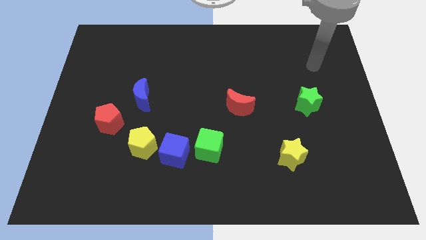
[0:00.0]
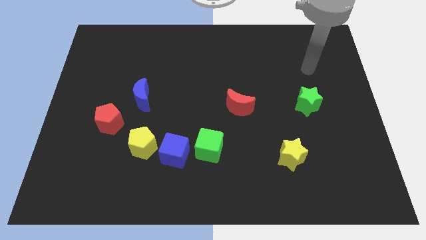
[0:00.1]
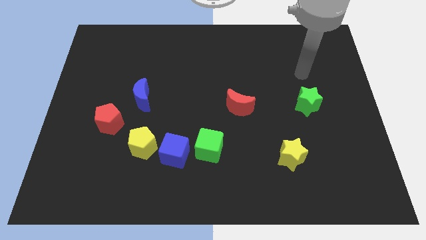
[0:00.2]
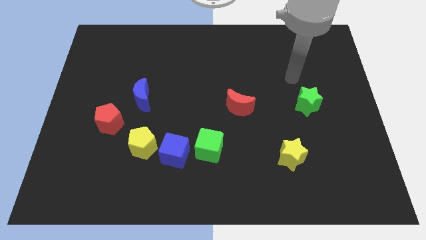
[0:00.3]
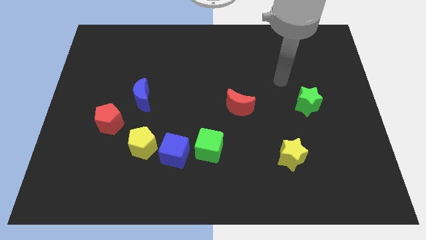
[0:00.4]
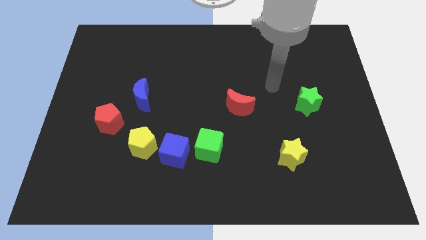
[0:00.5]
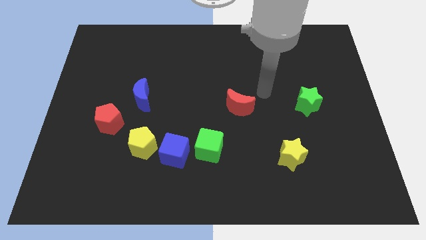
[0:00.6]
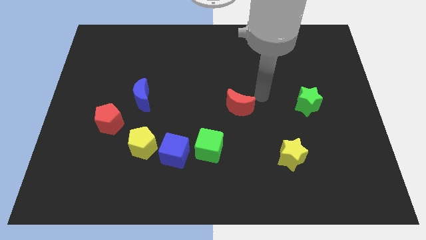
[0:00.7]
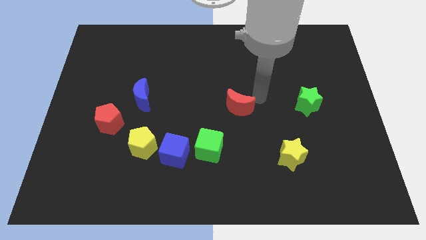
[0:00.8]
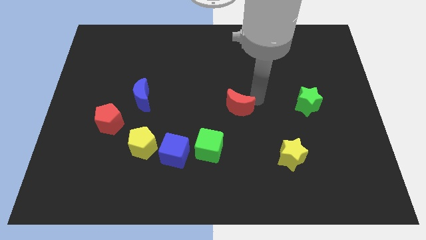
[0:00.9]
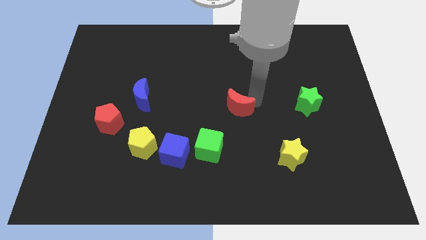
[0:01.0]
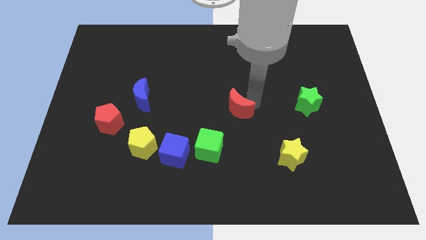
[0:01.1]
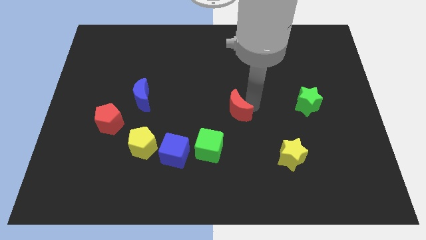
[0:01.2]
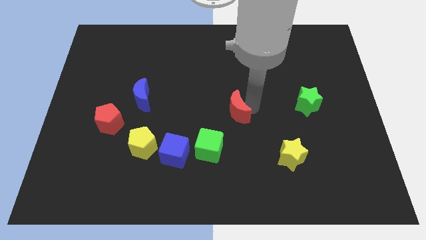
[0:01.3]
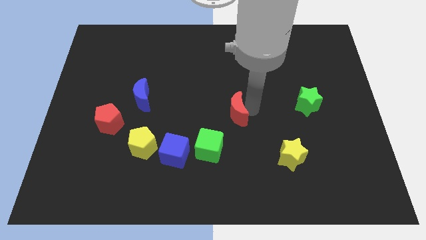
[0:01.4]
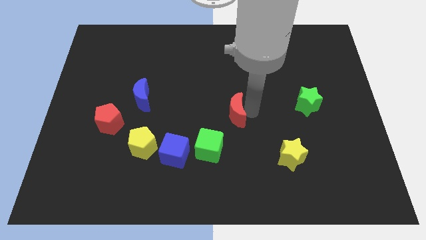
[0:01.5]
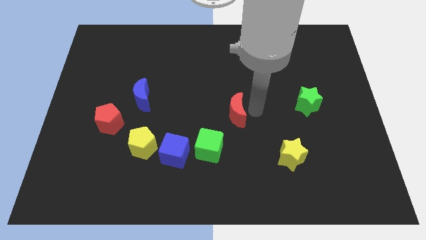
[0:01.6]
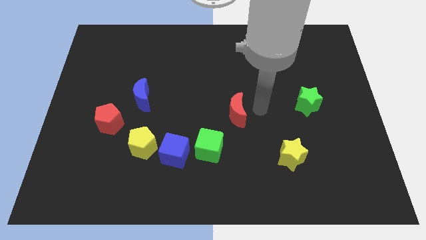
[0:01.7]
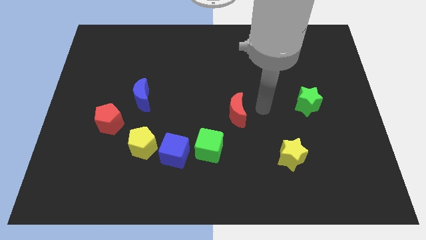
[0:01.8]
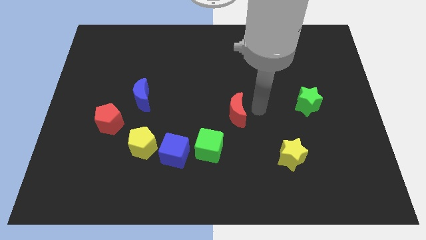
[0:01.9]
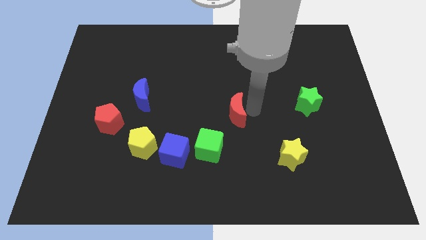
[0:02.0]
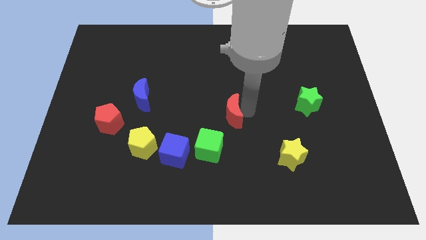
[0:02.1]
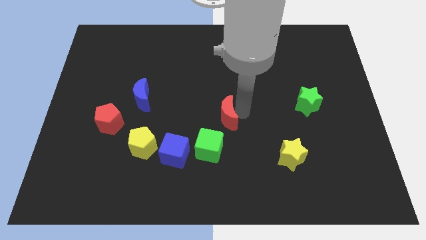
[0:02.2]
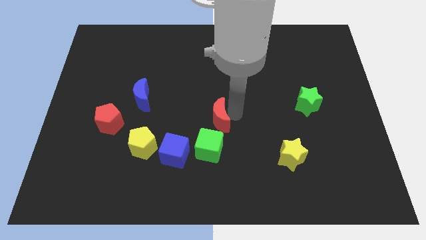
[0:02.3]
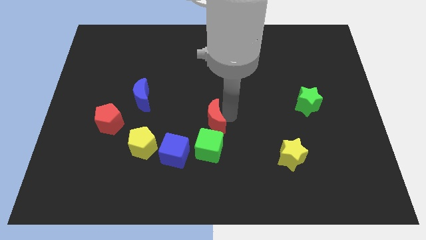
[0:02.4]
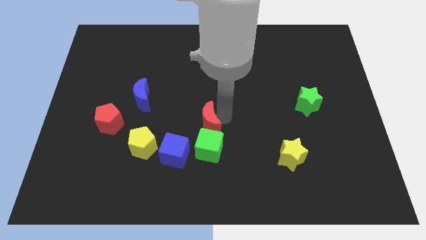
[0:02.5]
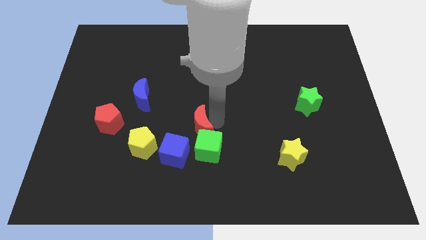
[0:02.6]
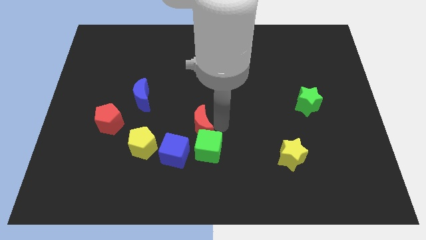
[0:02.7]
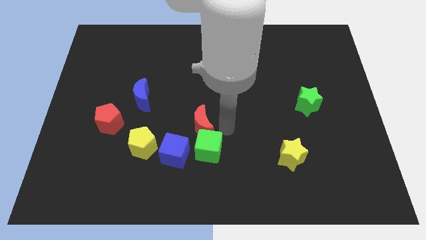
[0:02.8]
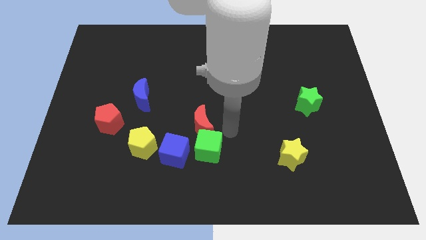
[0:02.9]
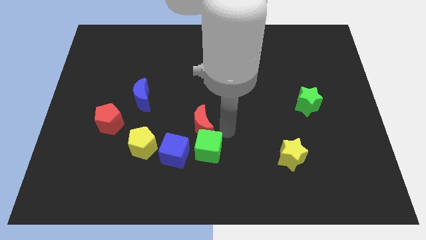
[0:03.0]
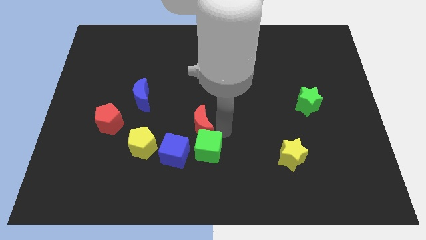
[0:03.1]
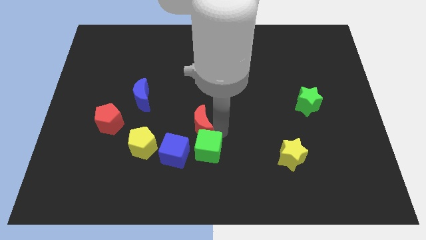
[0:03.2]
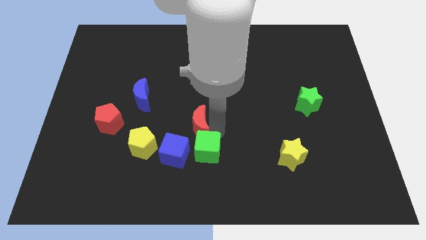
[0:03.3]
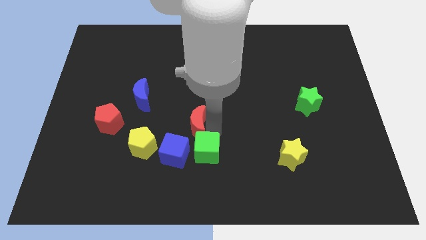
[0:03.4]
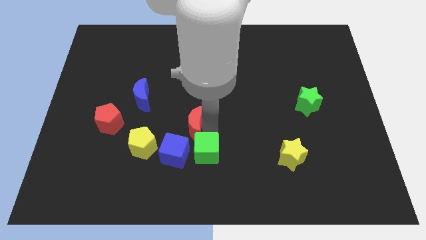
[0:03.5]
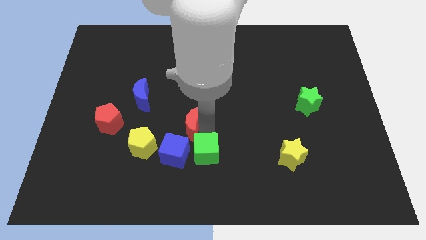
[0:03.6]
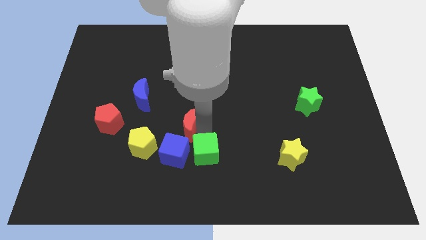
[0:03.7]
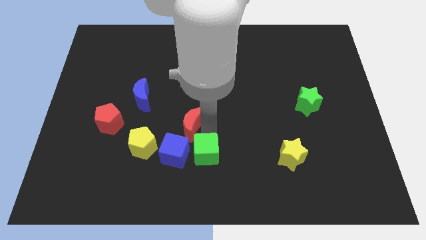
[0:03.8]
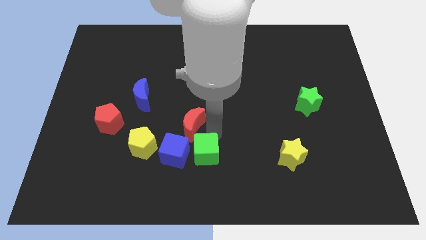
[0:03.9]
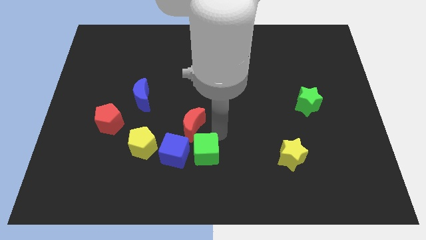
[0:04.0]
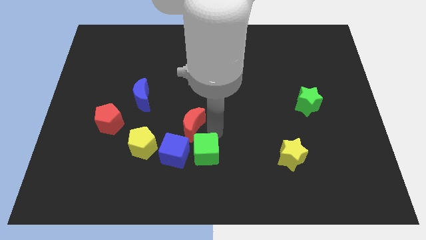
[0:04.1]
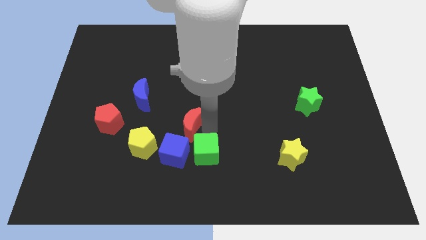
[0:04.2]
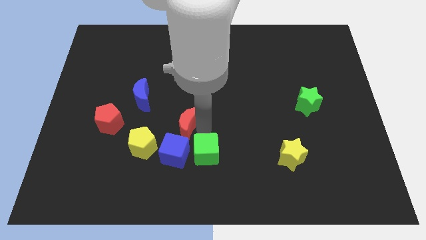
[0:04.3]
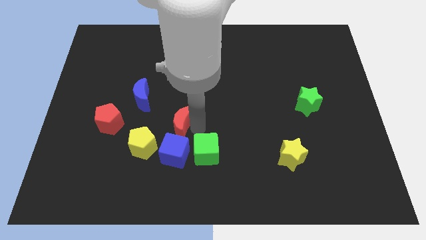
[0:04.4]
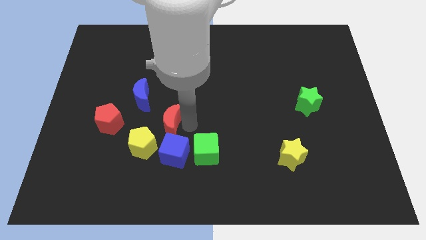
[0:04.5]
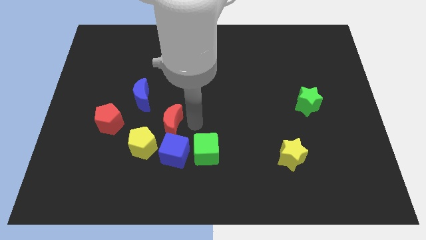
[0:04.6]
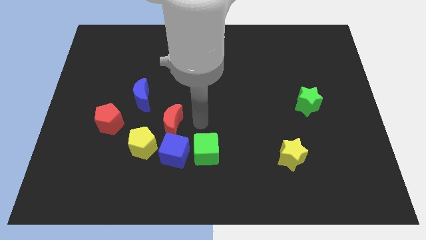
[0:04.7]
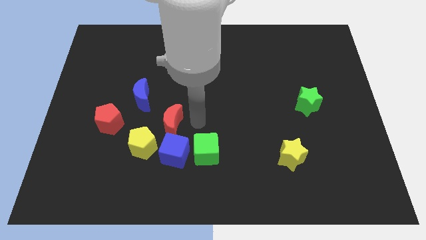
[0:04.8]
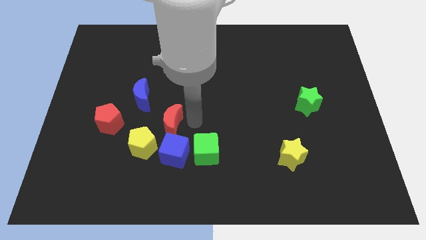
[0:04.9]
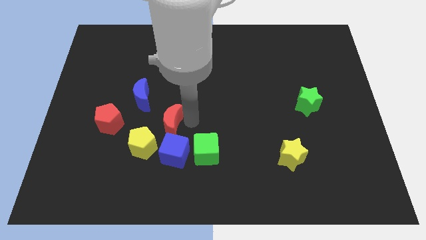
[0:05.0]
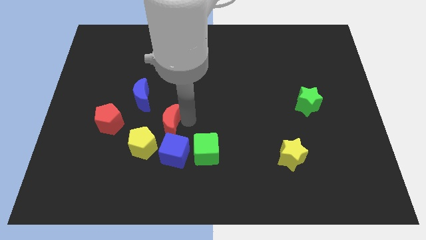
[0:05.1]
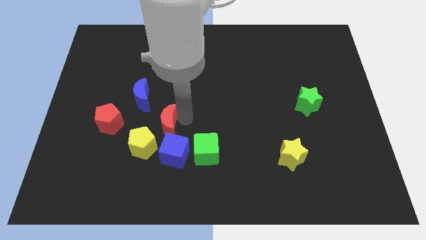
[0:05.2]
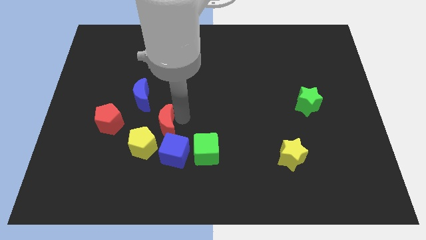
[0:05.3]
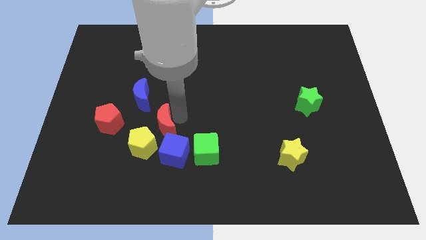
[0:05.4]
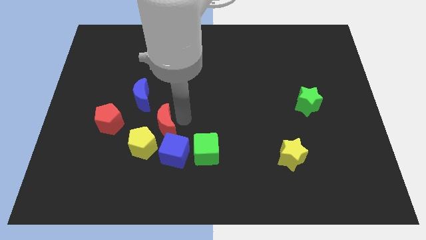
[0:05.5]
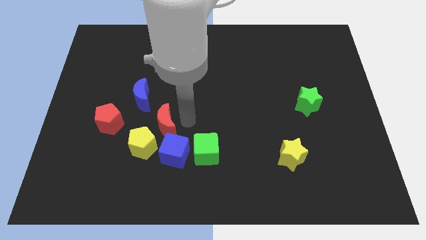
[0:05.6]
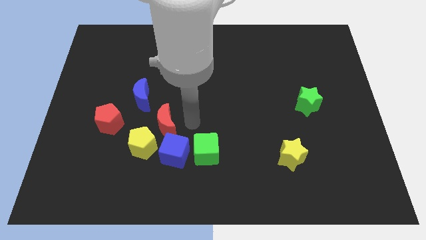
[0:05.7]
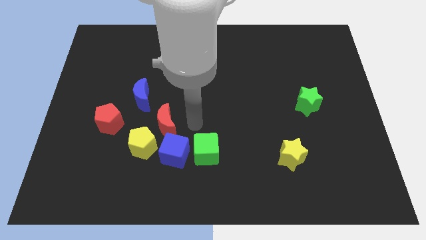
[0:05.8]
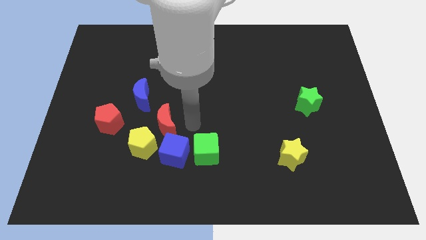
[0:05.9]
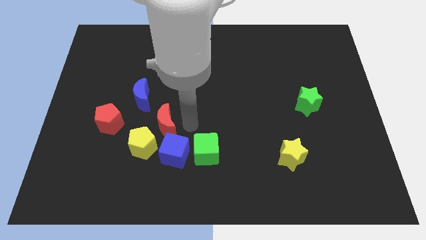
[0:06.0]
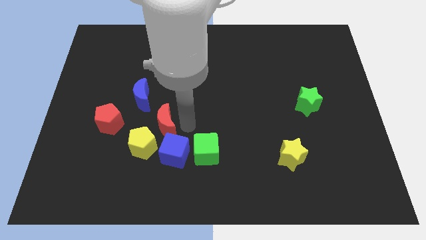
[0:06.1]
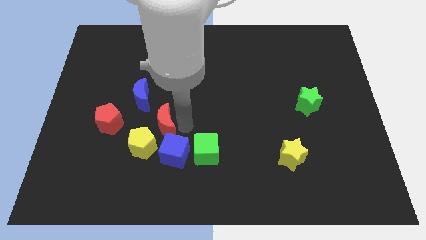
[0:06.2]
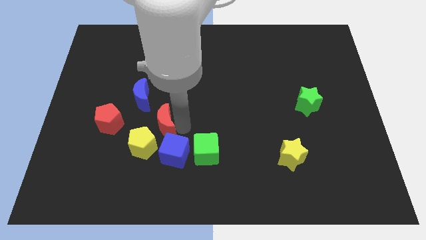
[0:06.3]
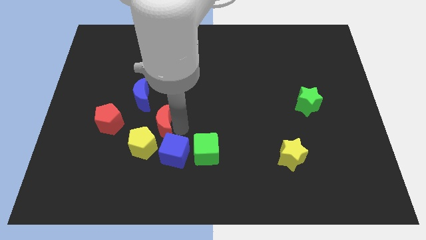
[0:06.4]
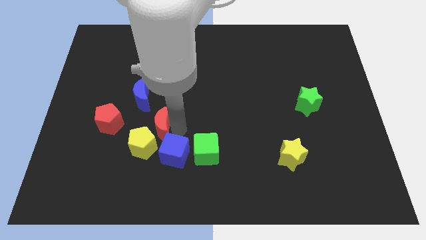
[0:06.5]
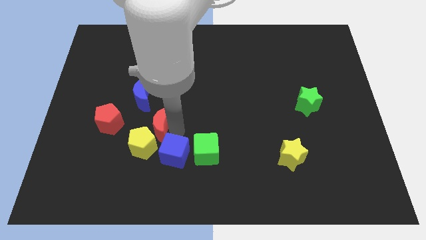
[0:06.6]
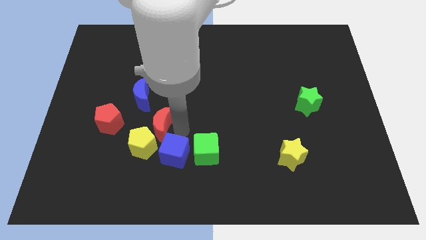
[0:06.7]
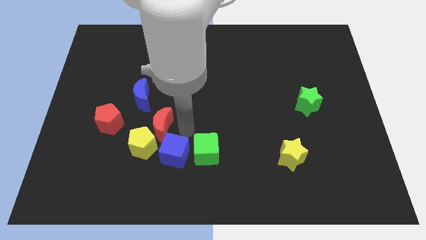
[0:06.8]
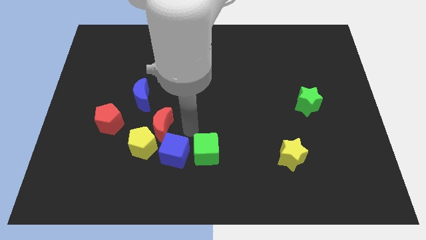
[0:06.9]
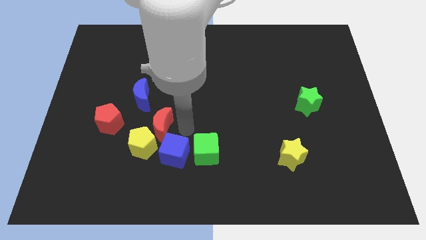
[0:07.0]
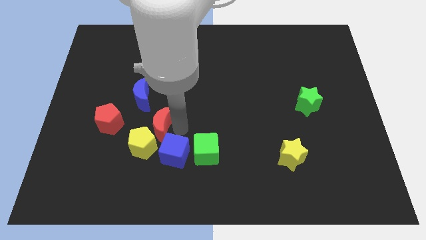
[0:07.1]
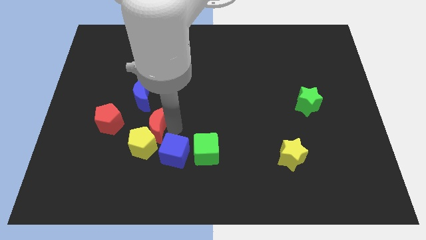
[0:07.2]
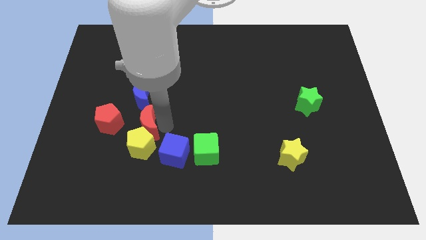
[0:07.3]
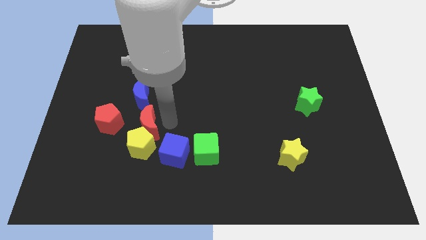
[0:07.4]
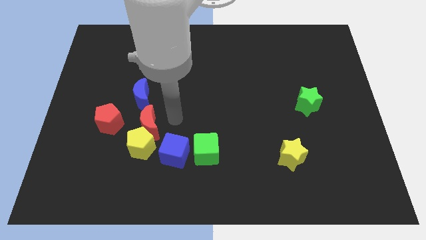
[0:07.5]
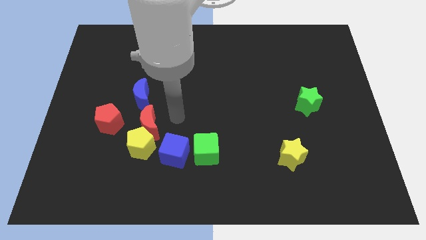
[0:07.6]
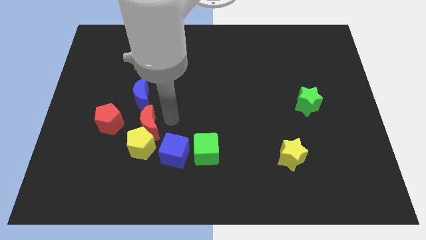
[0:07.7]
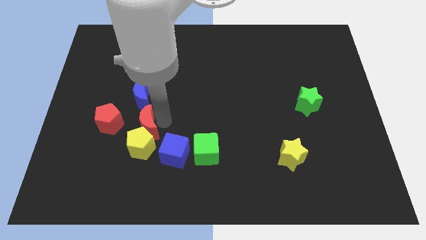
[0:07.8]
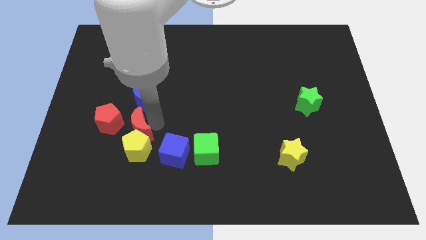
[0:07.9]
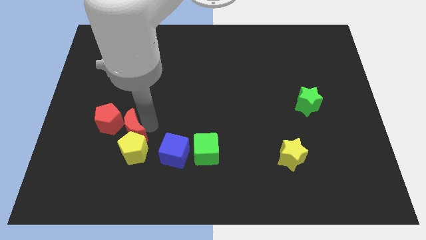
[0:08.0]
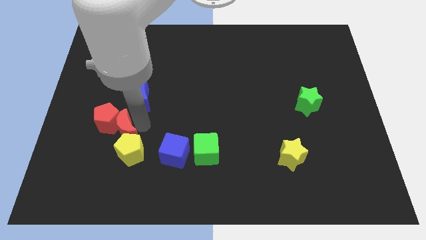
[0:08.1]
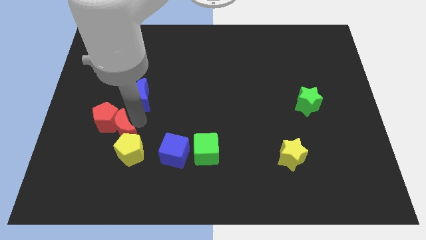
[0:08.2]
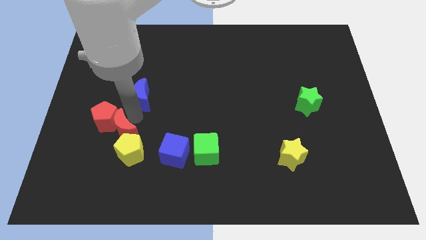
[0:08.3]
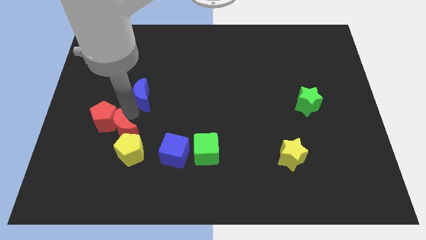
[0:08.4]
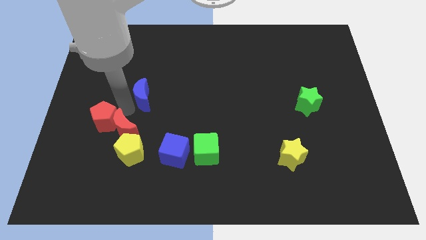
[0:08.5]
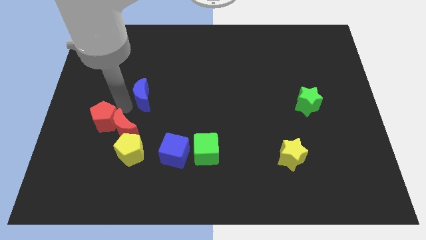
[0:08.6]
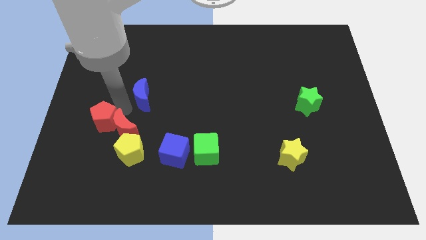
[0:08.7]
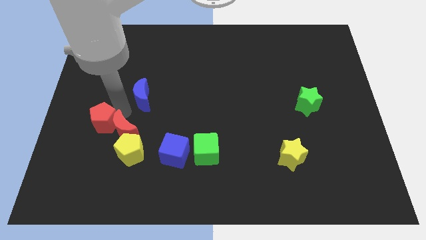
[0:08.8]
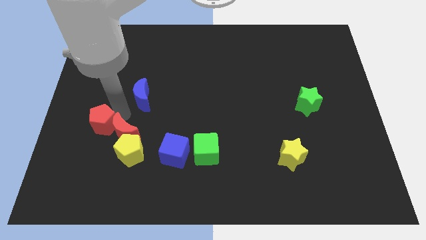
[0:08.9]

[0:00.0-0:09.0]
put the red moon left of the blue cube
